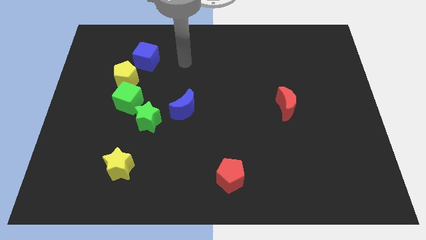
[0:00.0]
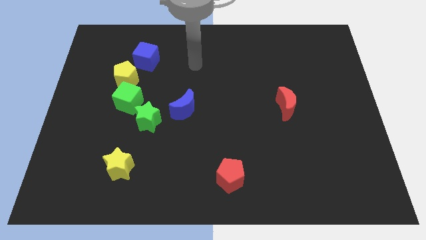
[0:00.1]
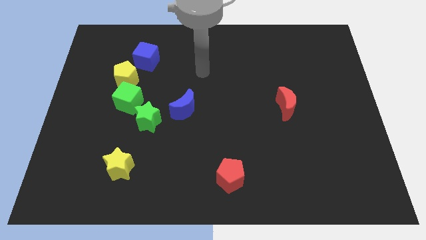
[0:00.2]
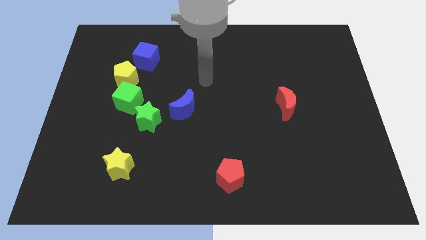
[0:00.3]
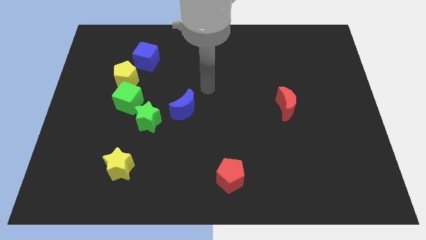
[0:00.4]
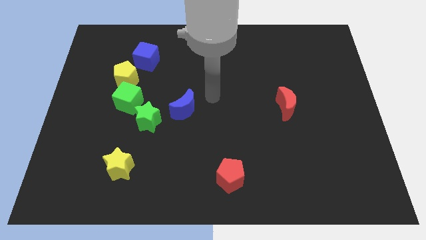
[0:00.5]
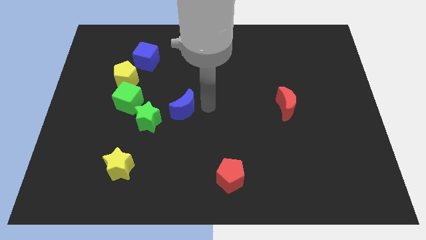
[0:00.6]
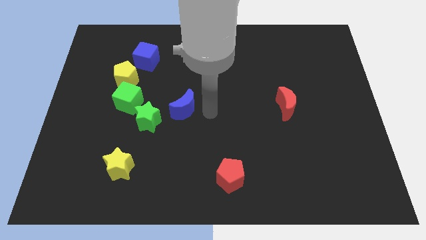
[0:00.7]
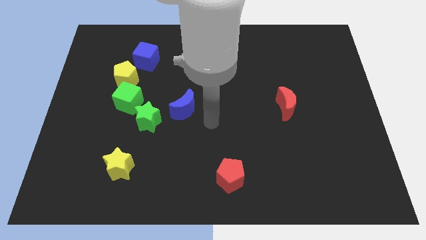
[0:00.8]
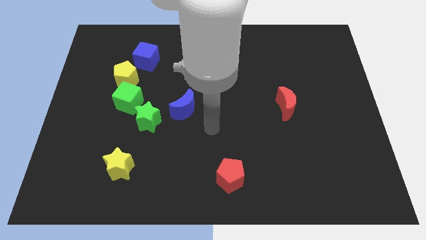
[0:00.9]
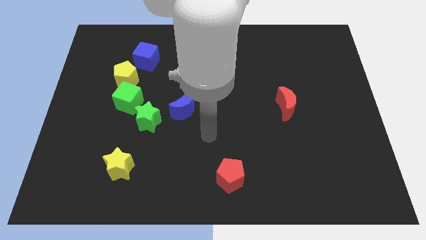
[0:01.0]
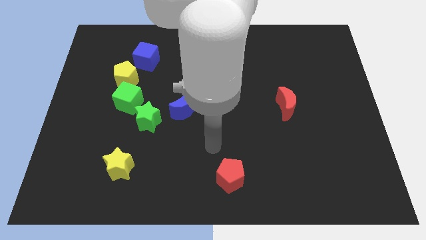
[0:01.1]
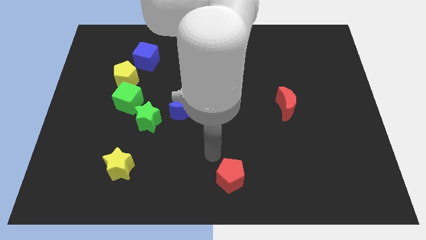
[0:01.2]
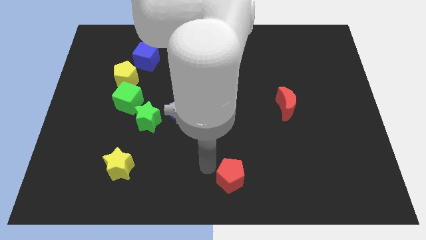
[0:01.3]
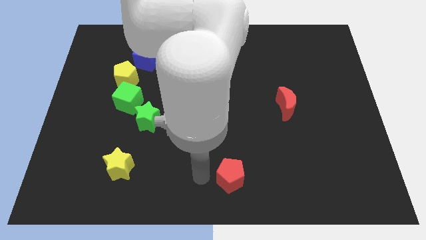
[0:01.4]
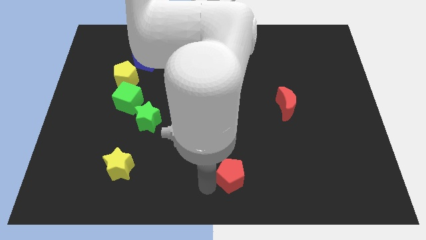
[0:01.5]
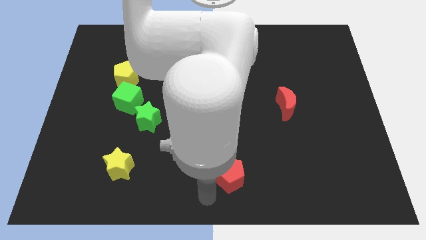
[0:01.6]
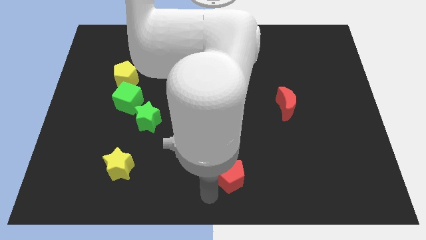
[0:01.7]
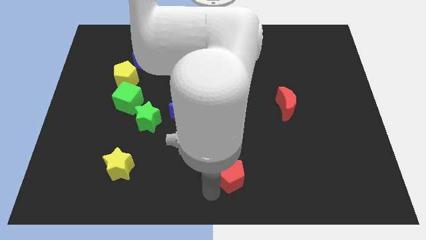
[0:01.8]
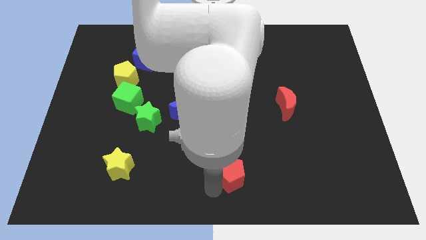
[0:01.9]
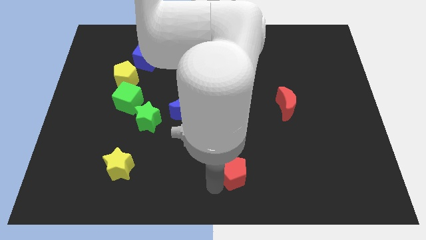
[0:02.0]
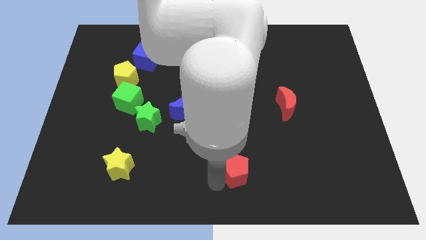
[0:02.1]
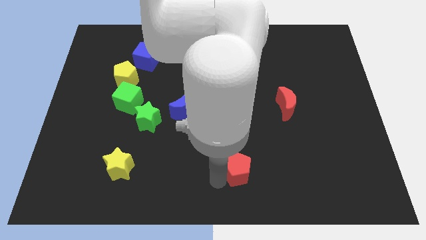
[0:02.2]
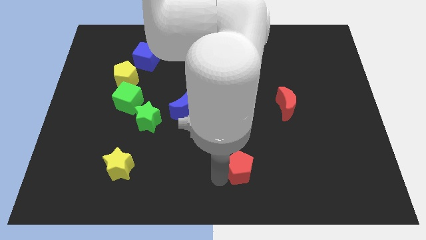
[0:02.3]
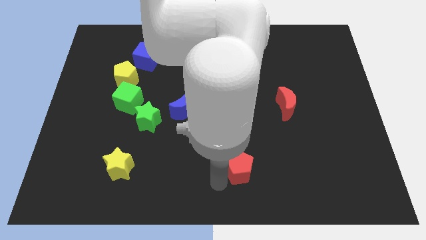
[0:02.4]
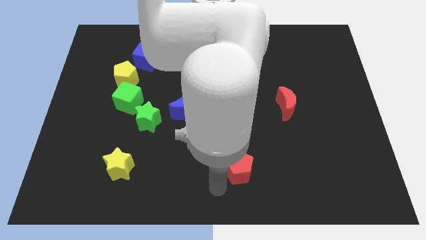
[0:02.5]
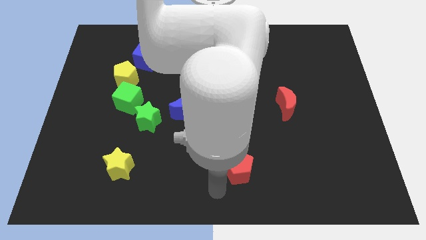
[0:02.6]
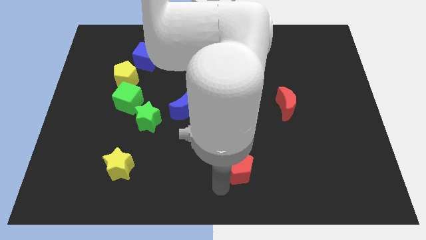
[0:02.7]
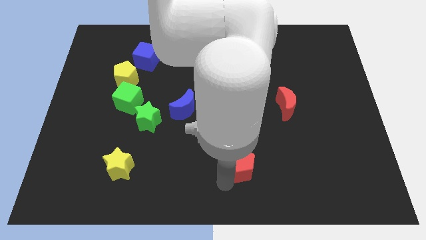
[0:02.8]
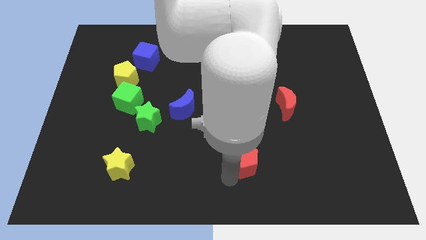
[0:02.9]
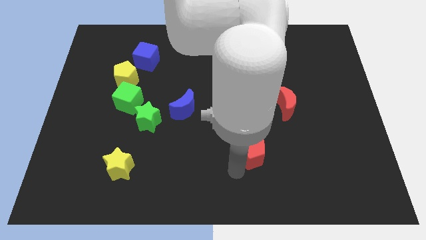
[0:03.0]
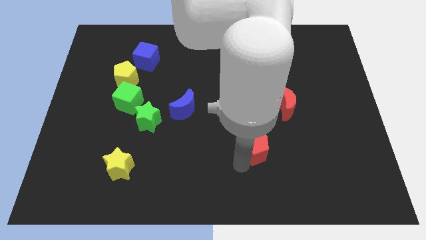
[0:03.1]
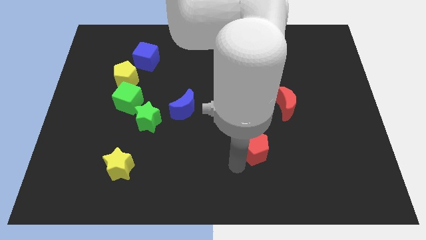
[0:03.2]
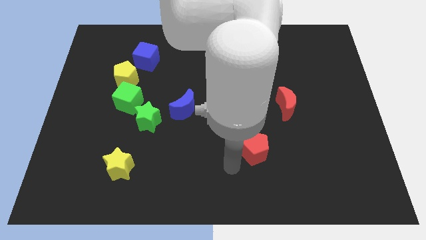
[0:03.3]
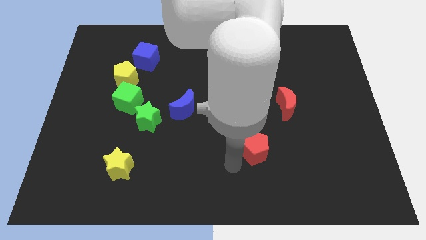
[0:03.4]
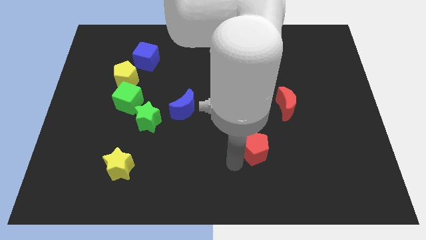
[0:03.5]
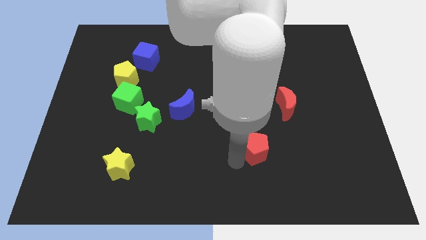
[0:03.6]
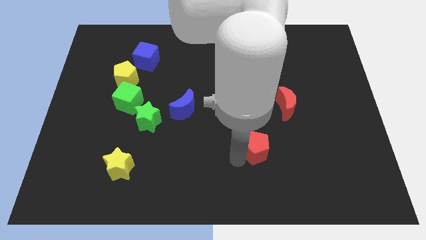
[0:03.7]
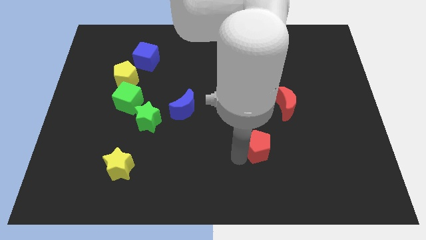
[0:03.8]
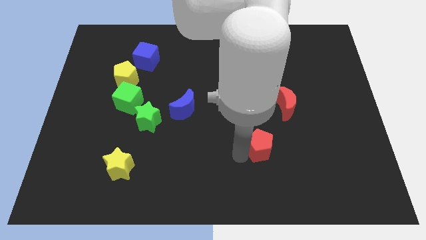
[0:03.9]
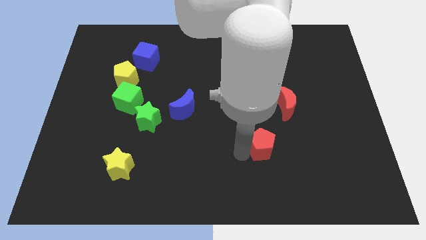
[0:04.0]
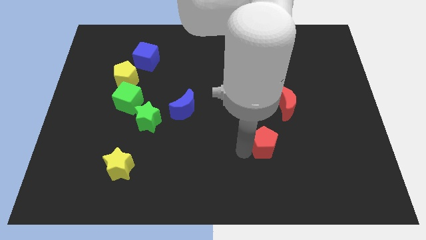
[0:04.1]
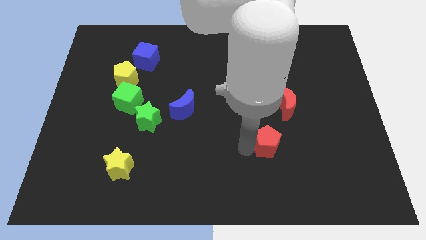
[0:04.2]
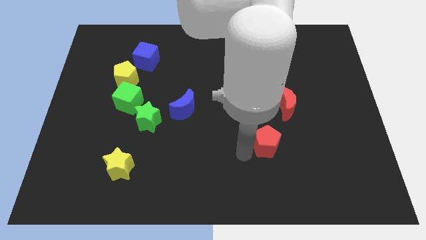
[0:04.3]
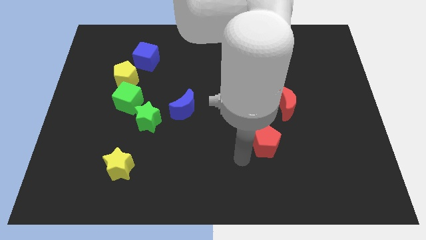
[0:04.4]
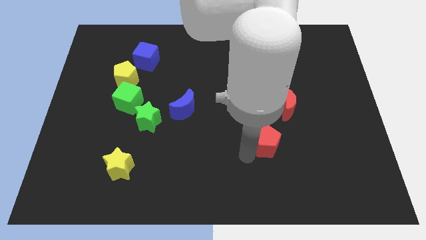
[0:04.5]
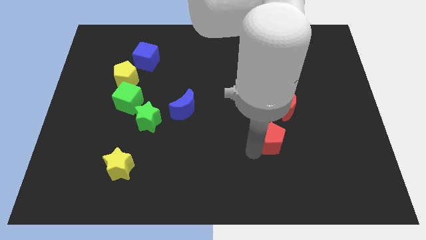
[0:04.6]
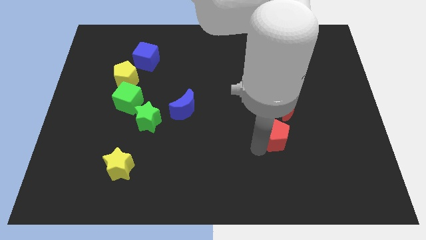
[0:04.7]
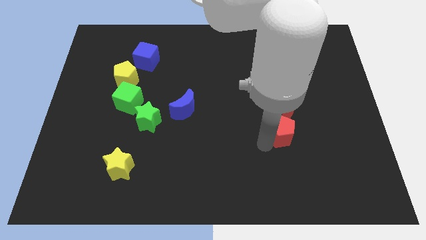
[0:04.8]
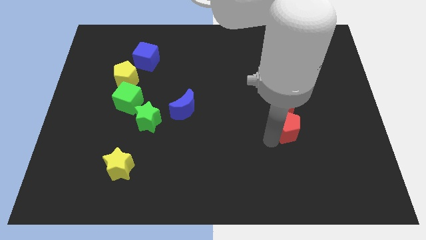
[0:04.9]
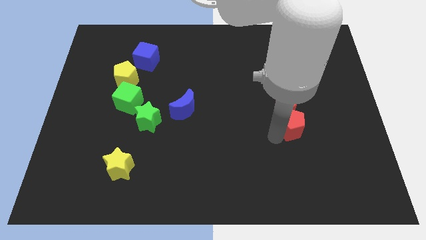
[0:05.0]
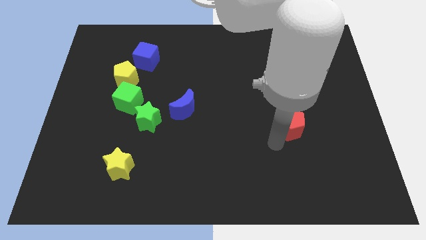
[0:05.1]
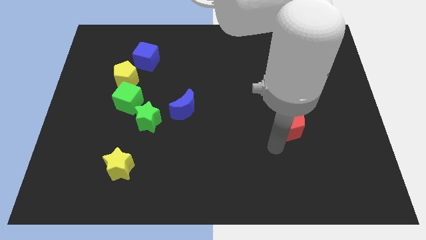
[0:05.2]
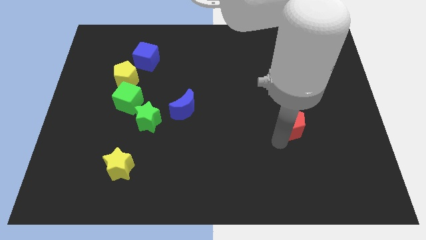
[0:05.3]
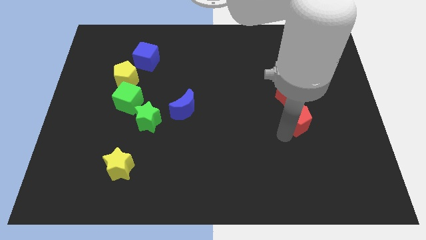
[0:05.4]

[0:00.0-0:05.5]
slide the red pentagon upwards and to the right diagonally

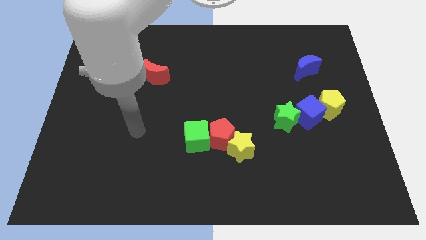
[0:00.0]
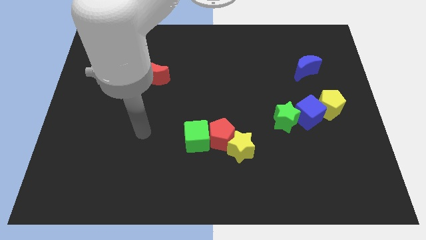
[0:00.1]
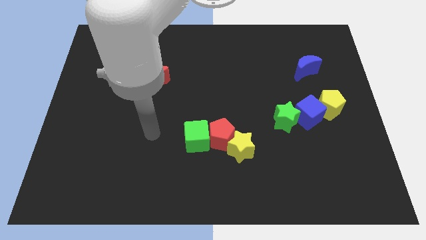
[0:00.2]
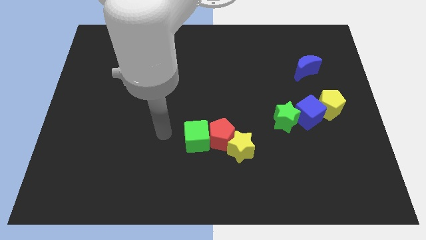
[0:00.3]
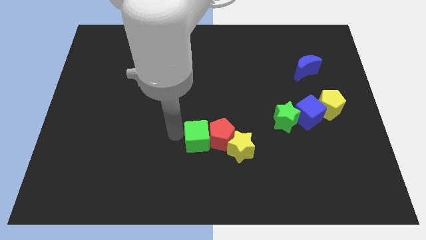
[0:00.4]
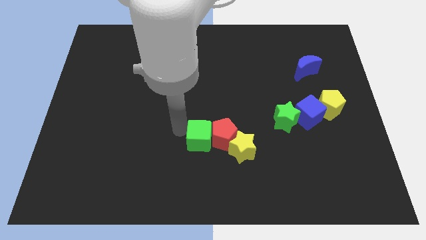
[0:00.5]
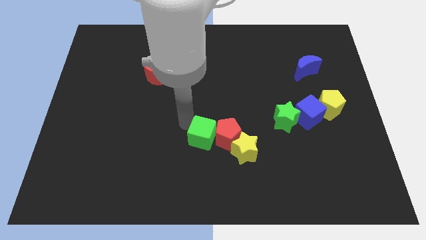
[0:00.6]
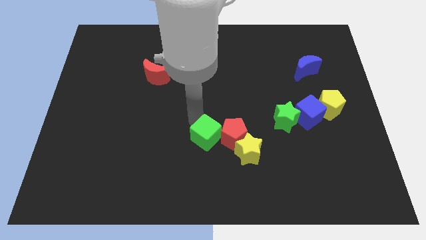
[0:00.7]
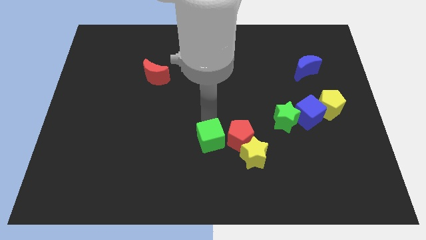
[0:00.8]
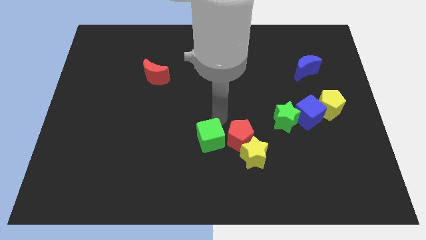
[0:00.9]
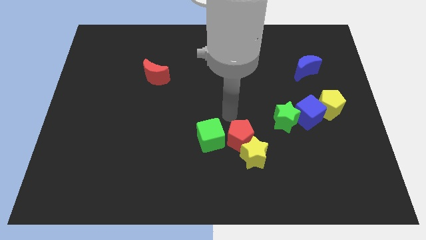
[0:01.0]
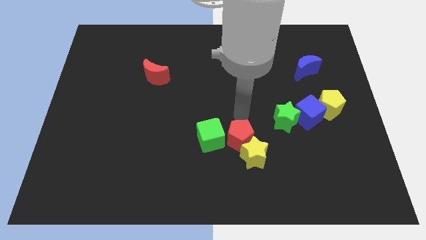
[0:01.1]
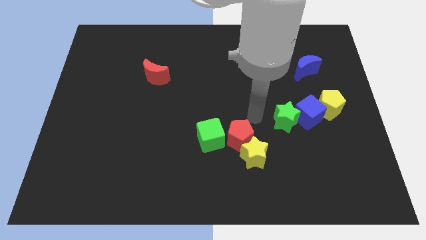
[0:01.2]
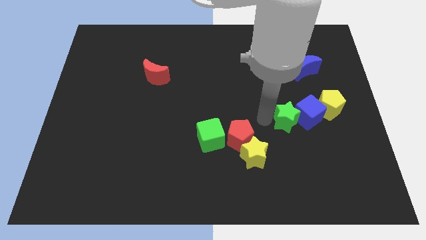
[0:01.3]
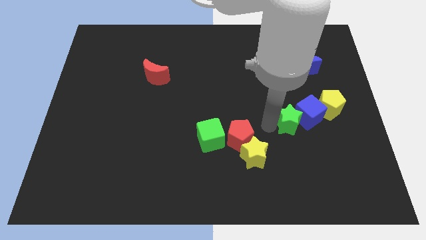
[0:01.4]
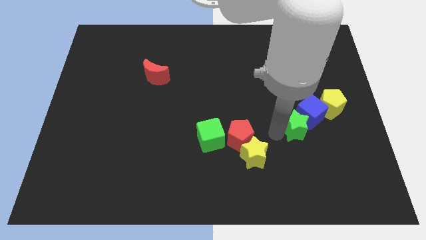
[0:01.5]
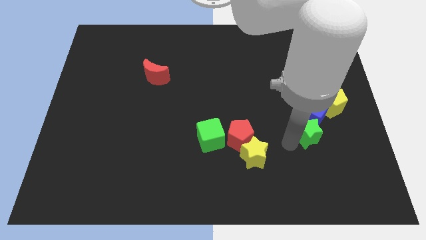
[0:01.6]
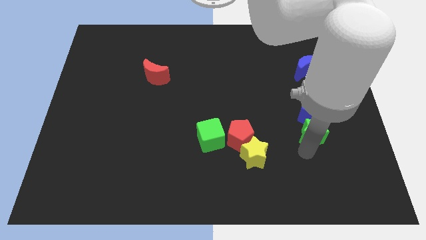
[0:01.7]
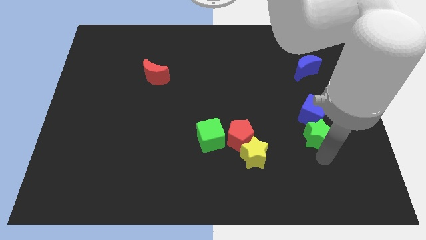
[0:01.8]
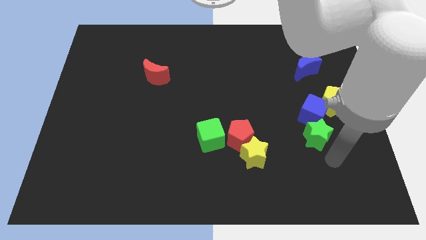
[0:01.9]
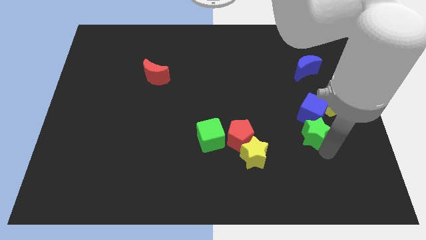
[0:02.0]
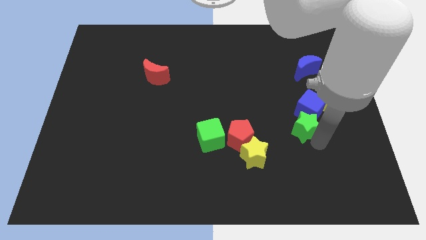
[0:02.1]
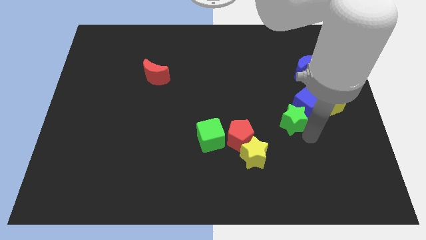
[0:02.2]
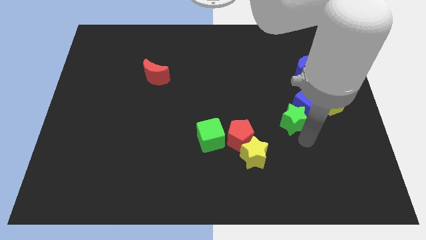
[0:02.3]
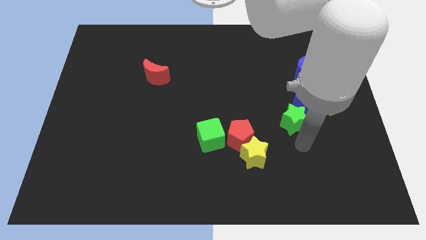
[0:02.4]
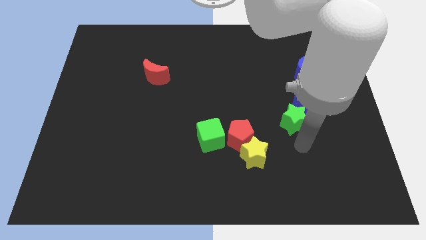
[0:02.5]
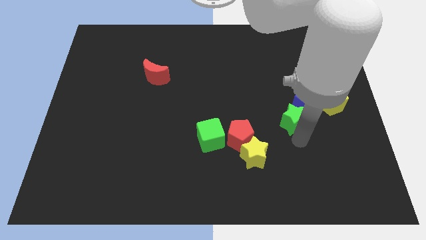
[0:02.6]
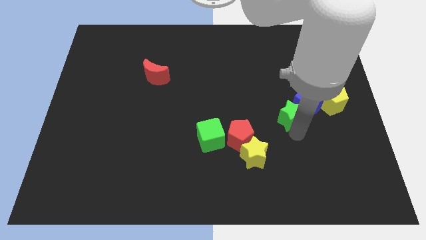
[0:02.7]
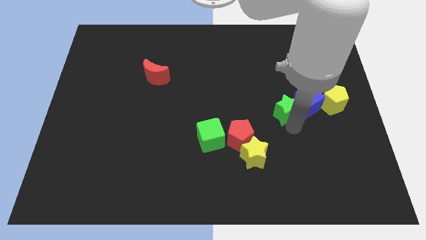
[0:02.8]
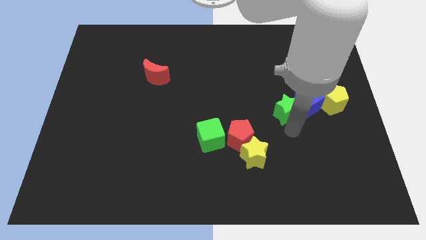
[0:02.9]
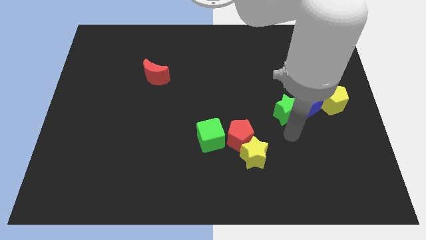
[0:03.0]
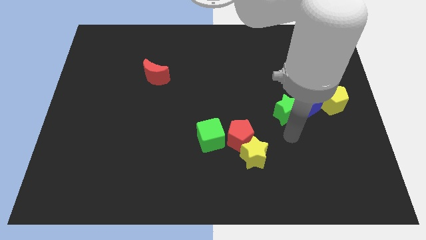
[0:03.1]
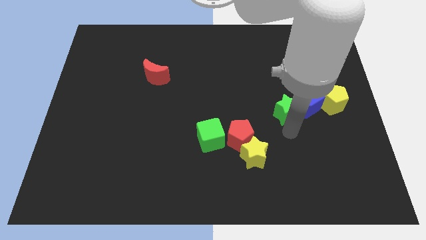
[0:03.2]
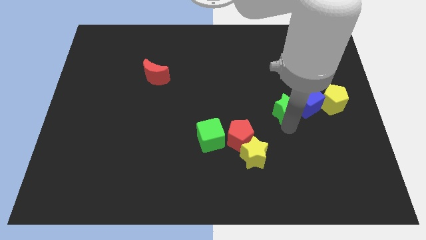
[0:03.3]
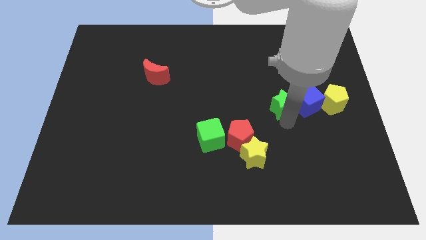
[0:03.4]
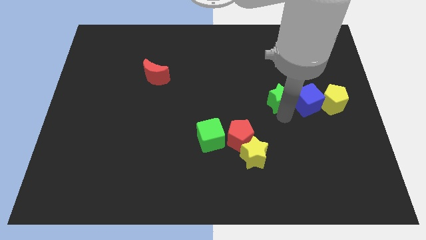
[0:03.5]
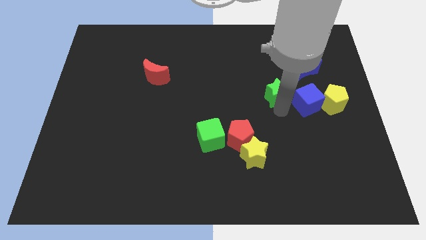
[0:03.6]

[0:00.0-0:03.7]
push the green star a little bit up
